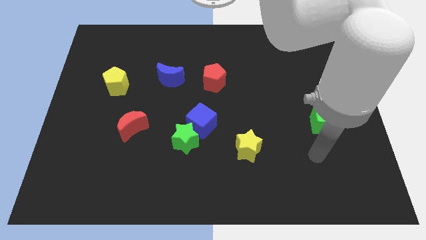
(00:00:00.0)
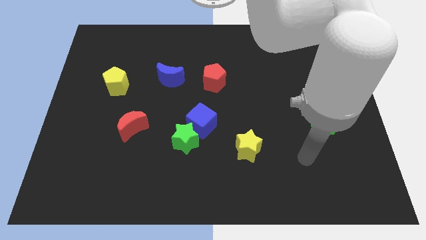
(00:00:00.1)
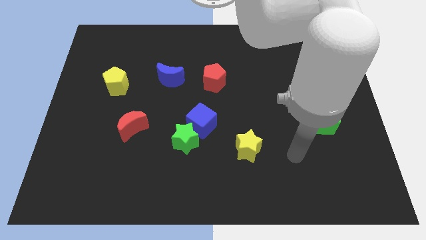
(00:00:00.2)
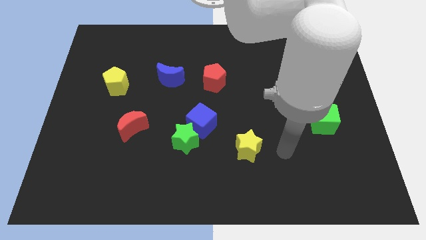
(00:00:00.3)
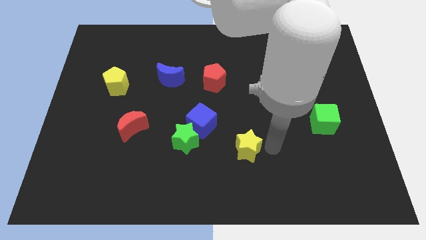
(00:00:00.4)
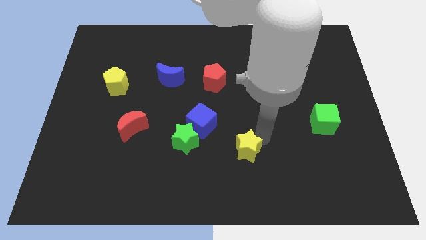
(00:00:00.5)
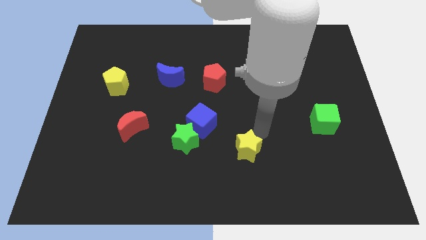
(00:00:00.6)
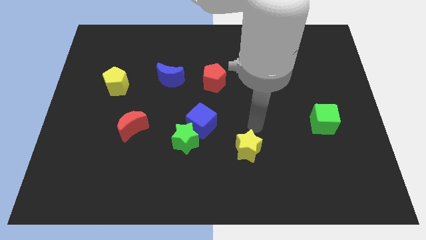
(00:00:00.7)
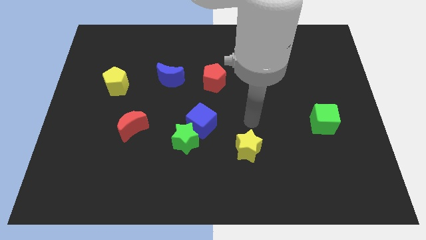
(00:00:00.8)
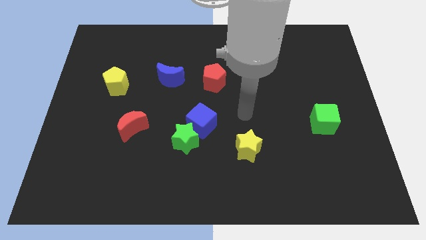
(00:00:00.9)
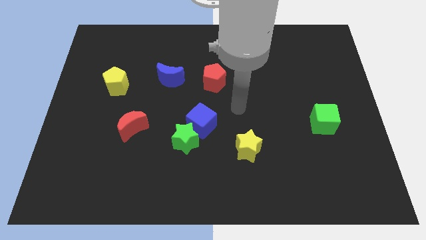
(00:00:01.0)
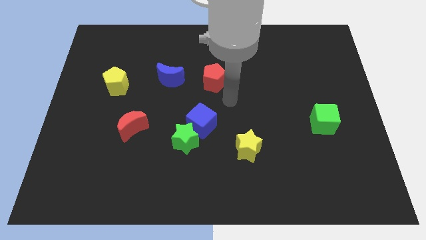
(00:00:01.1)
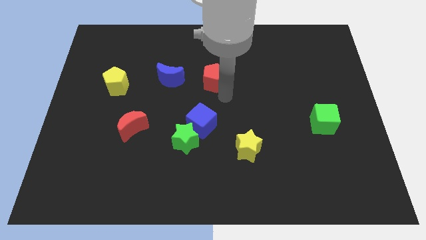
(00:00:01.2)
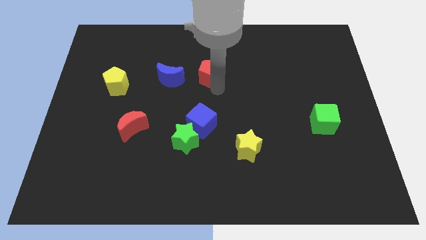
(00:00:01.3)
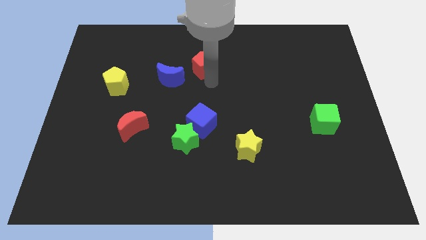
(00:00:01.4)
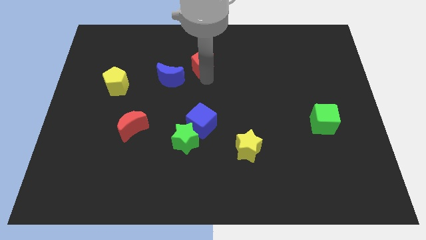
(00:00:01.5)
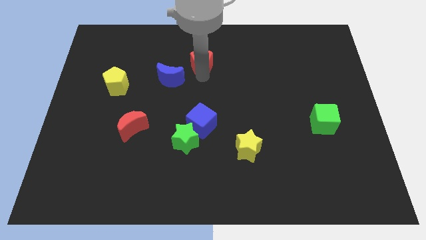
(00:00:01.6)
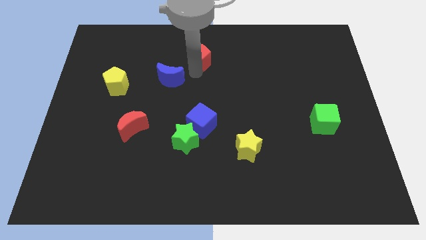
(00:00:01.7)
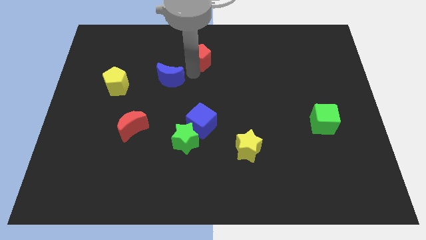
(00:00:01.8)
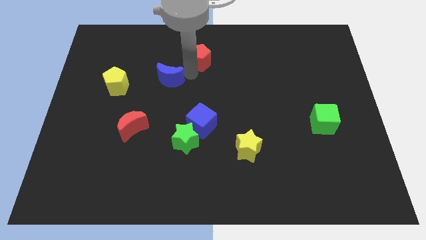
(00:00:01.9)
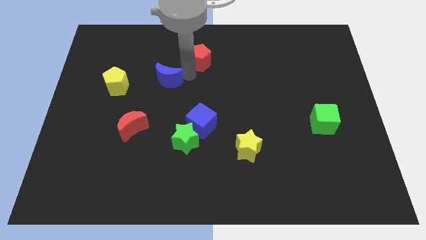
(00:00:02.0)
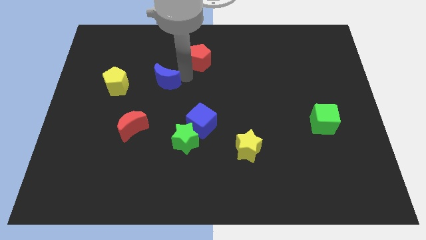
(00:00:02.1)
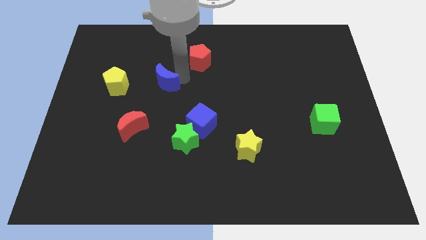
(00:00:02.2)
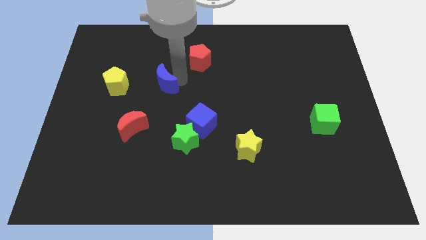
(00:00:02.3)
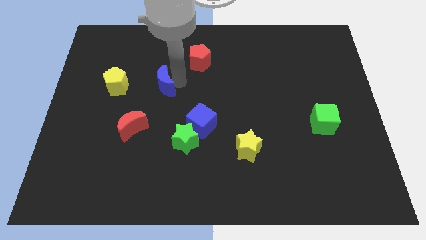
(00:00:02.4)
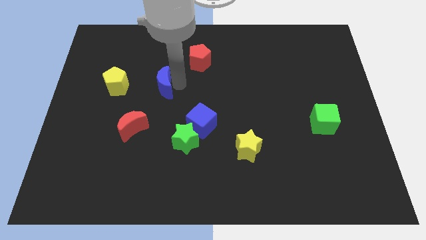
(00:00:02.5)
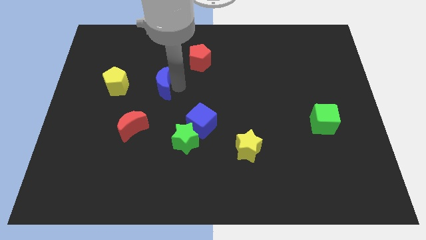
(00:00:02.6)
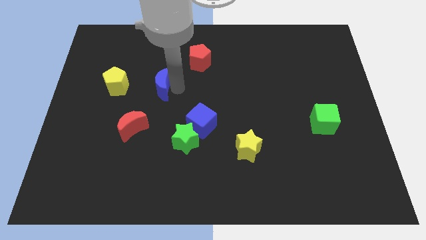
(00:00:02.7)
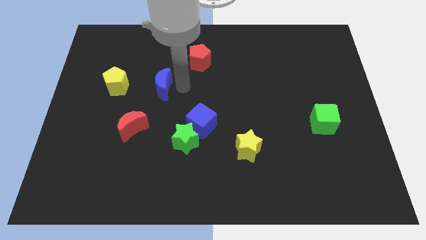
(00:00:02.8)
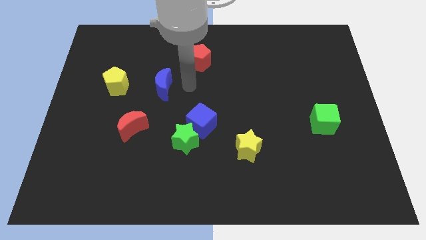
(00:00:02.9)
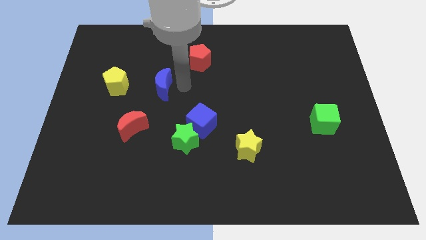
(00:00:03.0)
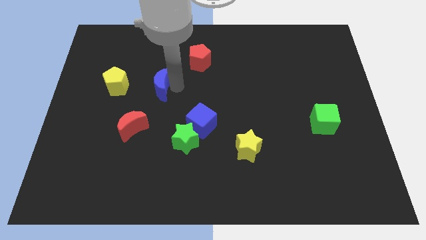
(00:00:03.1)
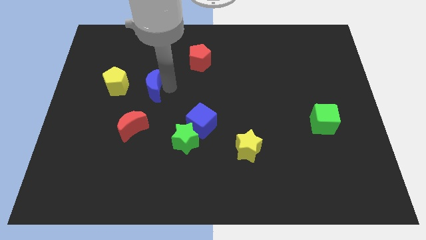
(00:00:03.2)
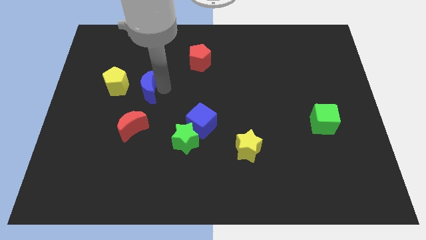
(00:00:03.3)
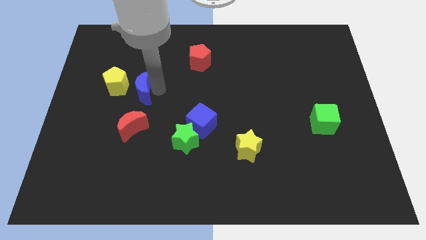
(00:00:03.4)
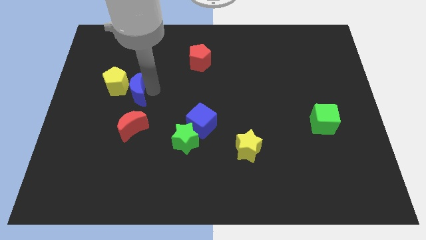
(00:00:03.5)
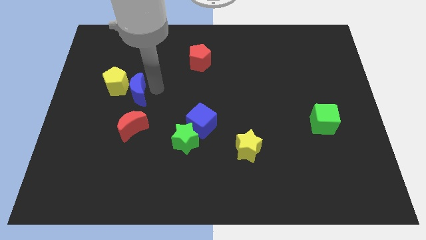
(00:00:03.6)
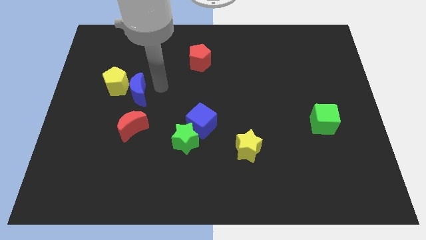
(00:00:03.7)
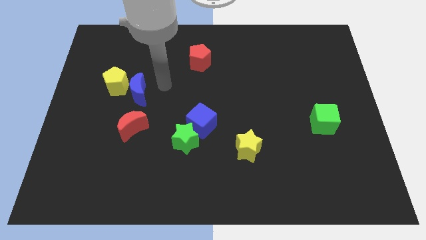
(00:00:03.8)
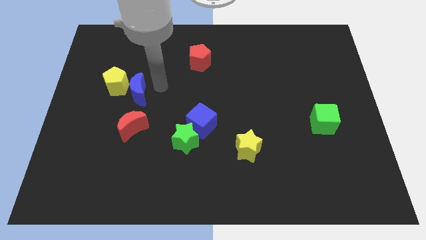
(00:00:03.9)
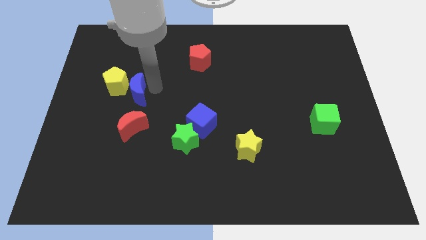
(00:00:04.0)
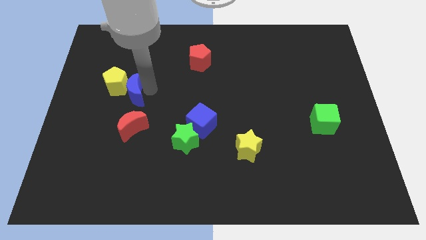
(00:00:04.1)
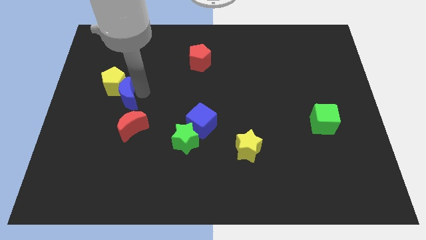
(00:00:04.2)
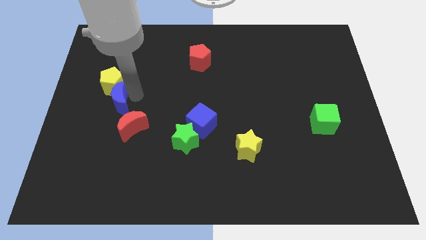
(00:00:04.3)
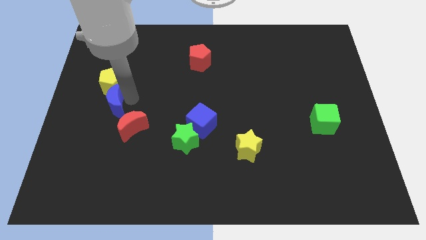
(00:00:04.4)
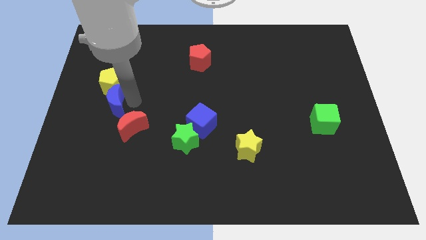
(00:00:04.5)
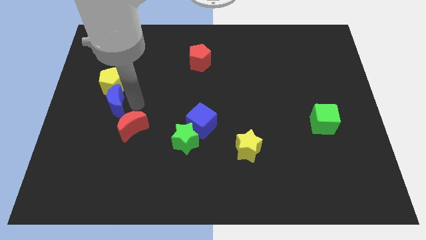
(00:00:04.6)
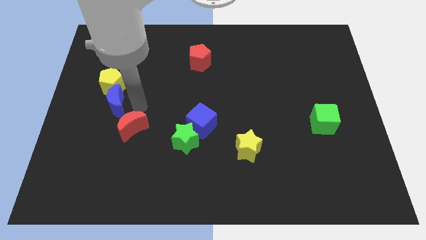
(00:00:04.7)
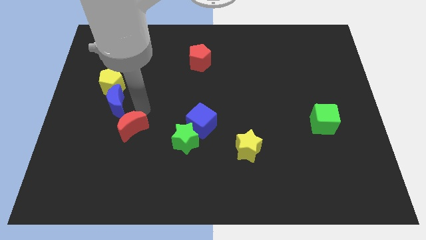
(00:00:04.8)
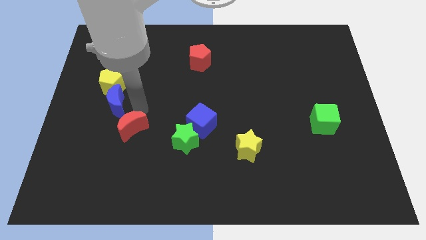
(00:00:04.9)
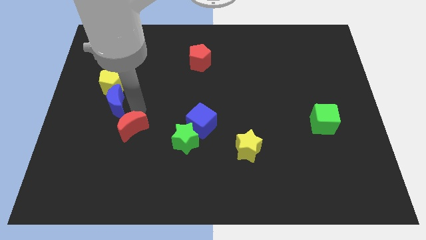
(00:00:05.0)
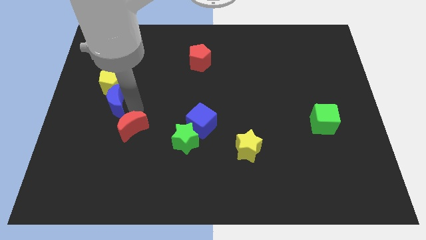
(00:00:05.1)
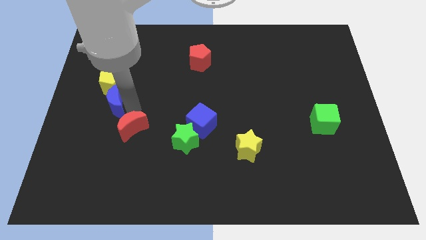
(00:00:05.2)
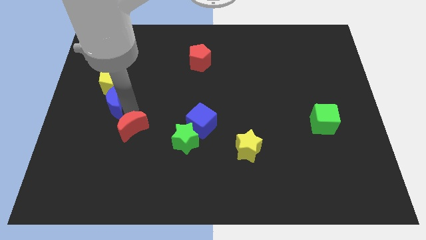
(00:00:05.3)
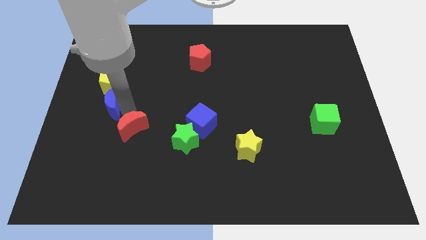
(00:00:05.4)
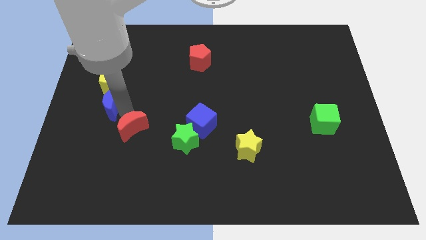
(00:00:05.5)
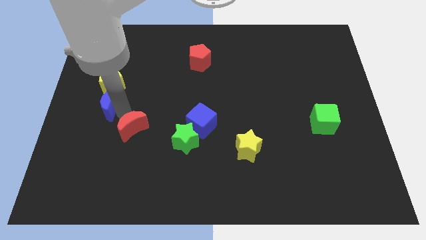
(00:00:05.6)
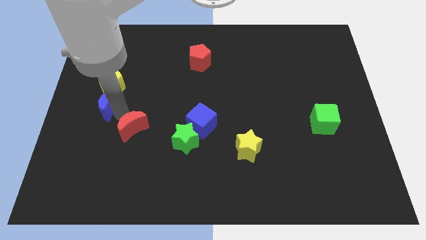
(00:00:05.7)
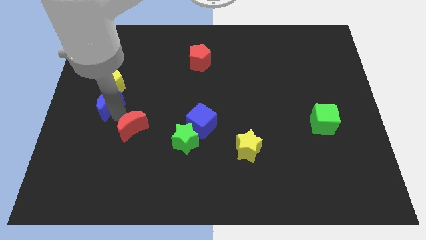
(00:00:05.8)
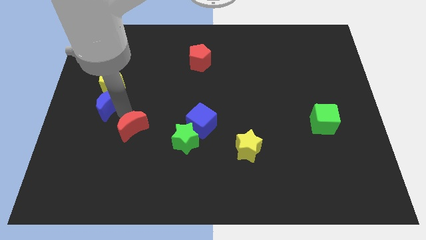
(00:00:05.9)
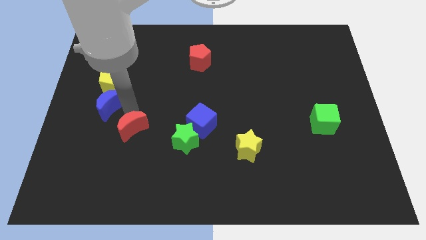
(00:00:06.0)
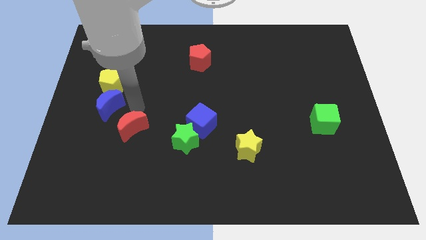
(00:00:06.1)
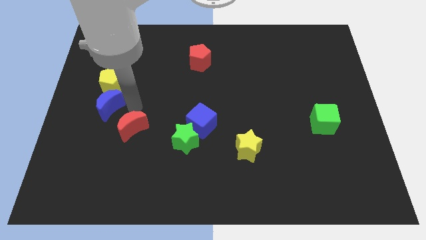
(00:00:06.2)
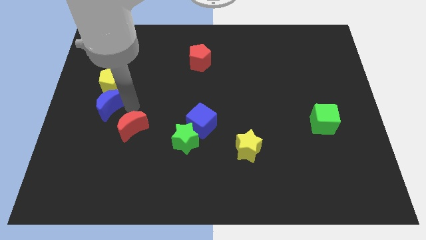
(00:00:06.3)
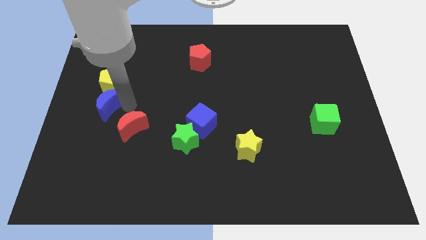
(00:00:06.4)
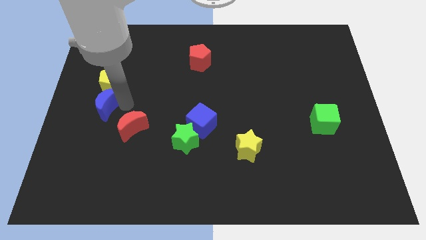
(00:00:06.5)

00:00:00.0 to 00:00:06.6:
move the blue moon to the left side of the board
